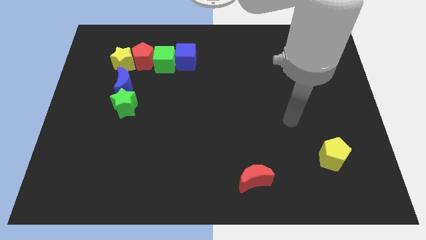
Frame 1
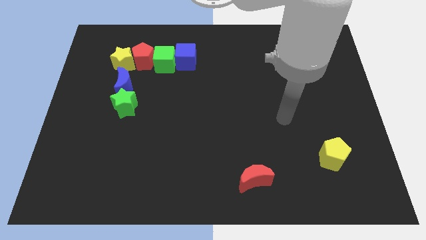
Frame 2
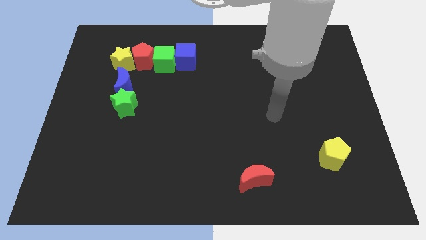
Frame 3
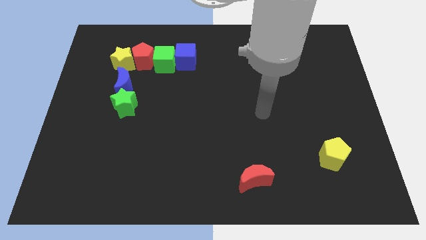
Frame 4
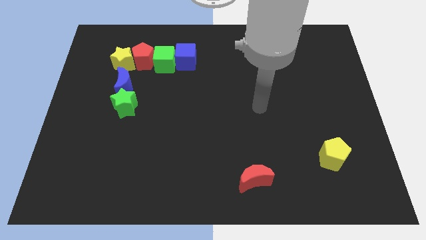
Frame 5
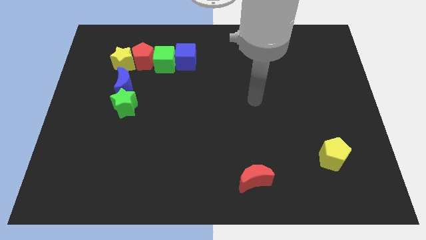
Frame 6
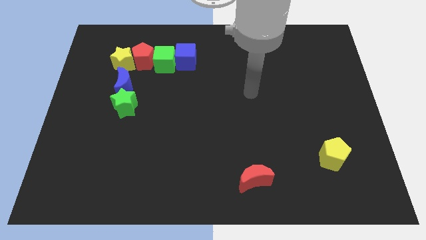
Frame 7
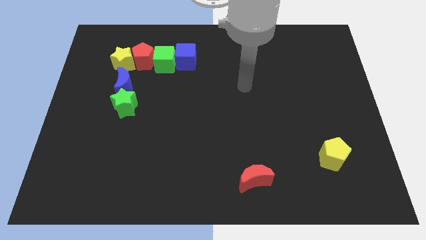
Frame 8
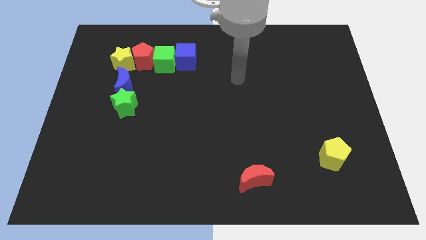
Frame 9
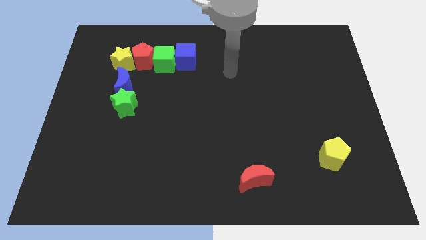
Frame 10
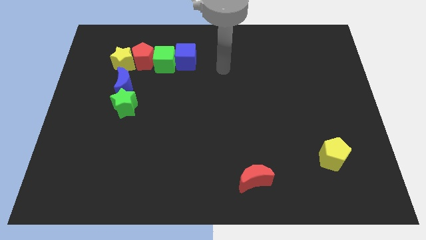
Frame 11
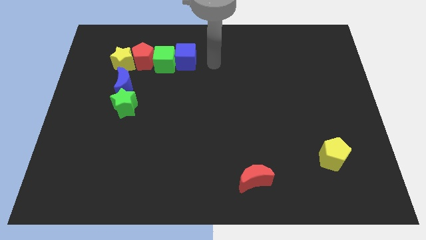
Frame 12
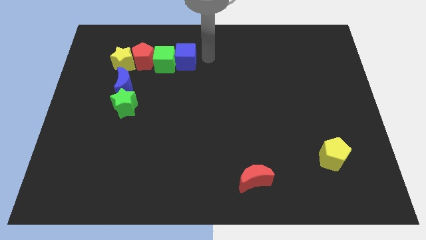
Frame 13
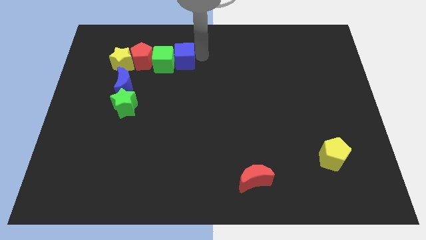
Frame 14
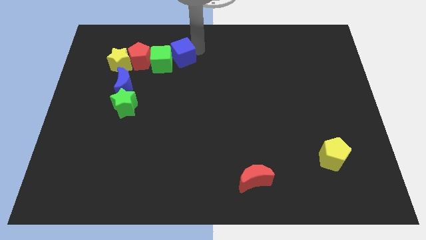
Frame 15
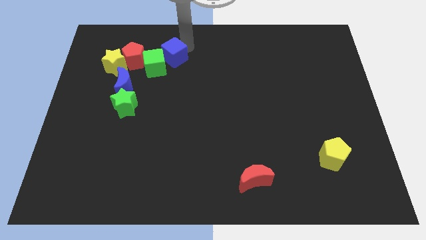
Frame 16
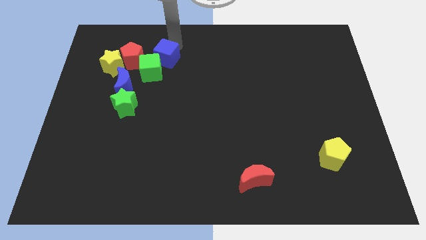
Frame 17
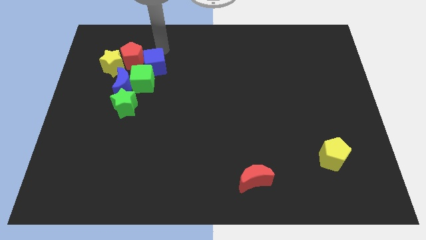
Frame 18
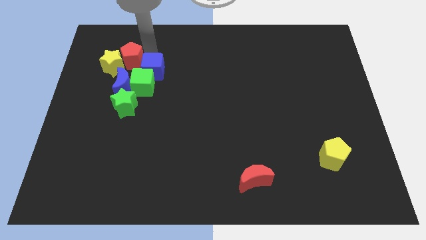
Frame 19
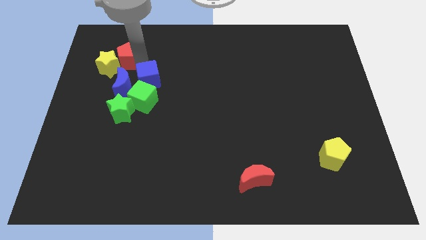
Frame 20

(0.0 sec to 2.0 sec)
separate the green cube from the red pentagon and blue cube

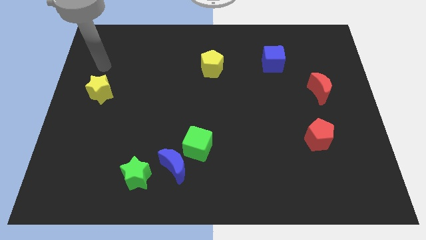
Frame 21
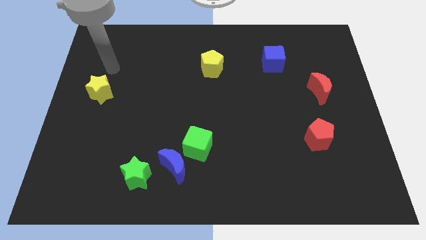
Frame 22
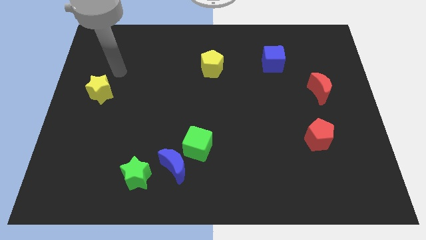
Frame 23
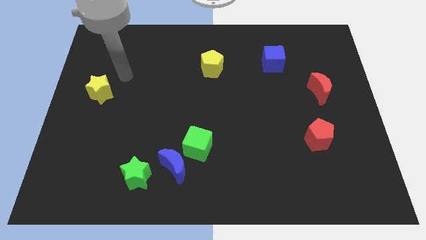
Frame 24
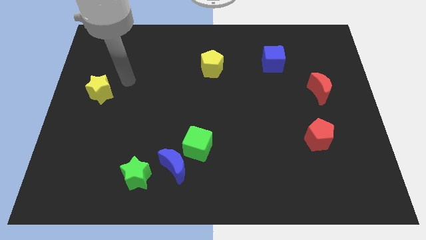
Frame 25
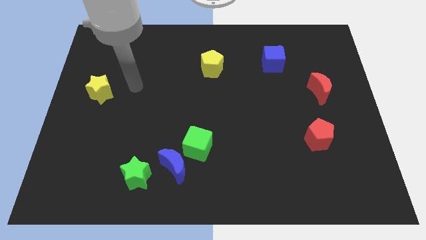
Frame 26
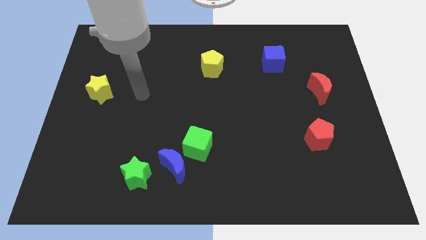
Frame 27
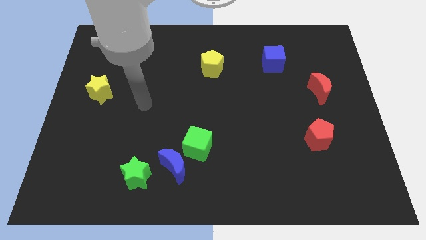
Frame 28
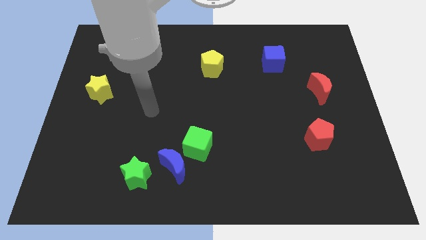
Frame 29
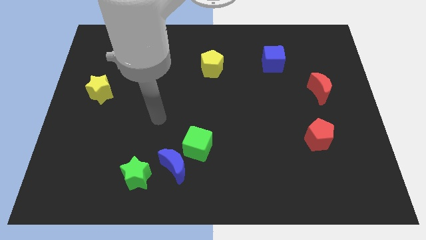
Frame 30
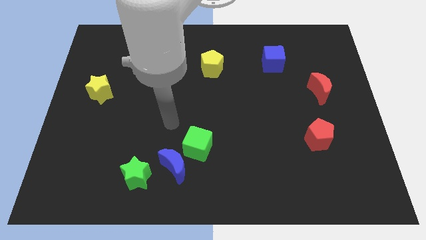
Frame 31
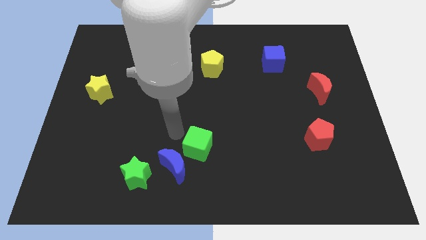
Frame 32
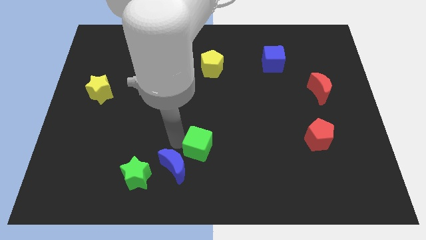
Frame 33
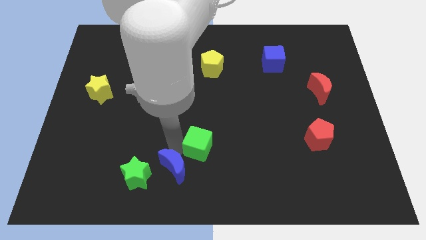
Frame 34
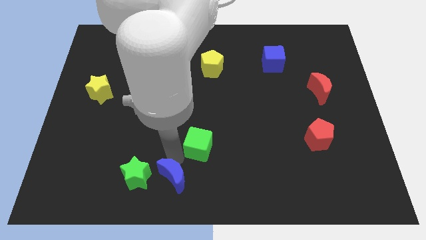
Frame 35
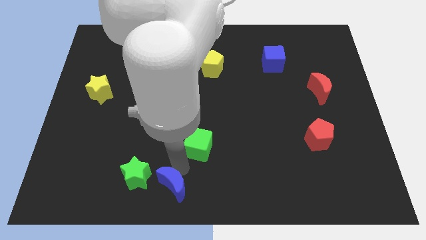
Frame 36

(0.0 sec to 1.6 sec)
move the green cube away from the blue moon

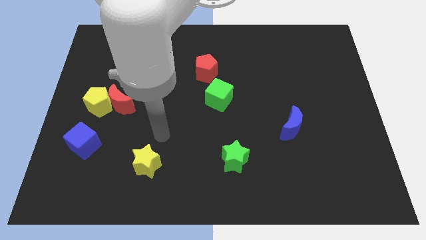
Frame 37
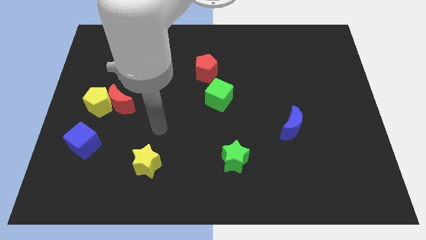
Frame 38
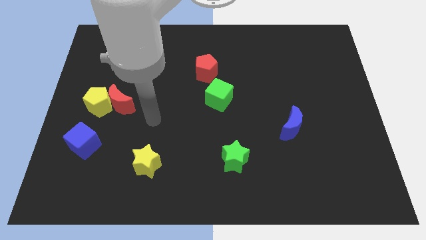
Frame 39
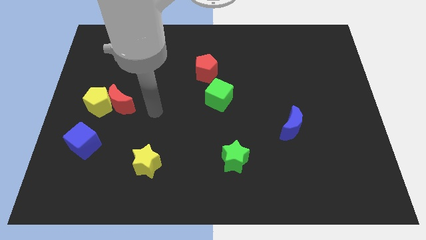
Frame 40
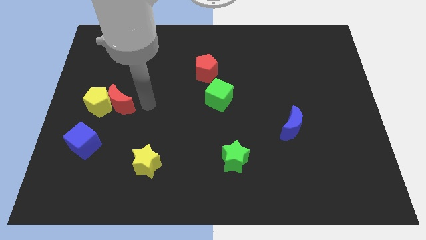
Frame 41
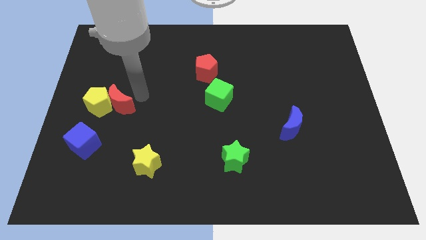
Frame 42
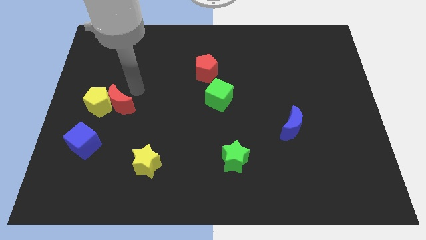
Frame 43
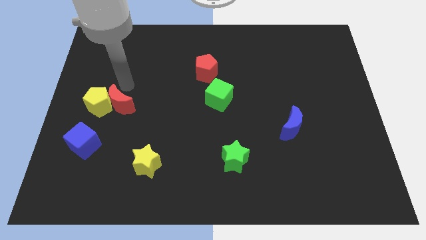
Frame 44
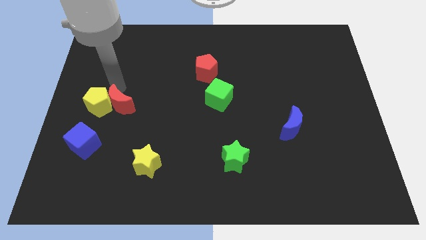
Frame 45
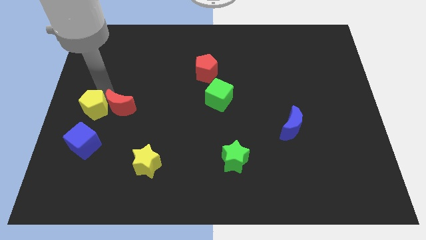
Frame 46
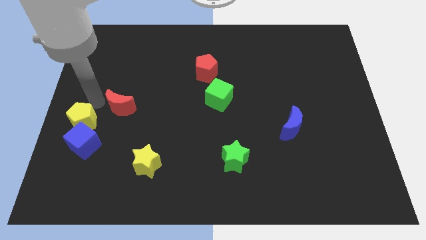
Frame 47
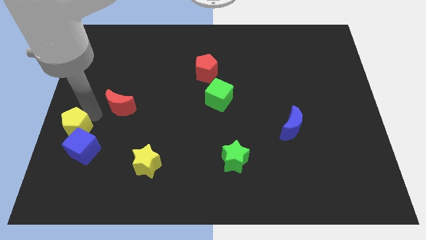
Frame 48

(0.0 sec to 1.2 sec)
pull the red moon apart from the yellow pentagon

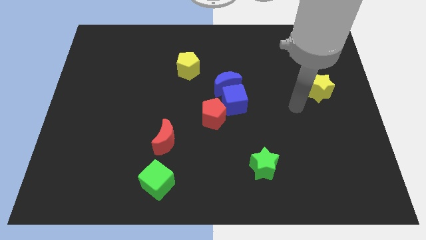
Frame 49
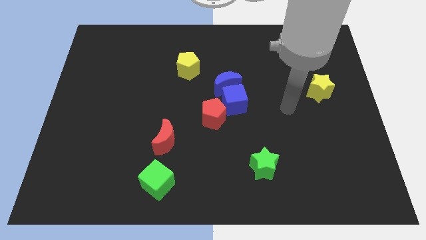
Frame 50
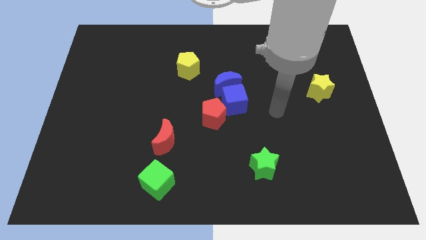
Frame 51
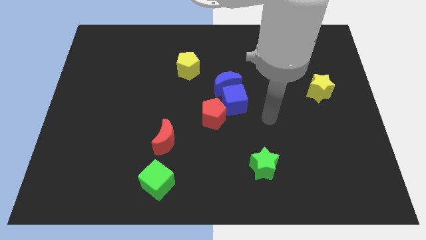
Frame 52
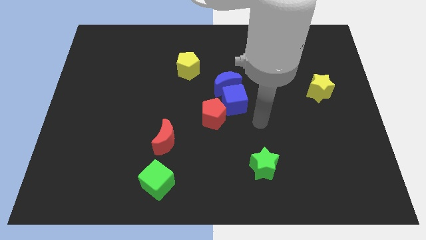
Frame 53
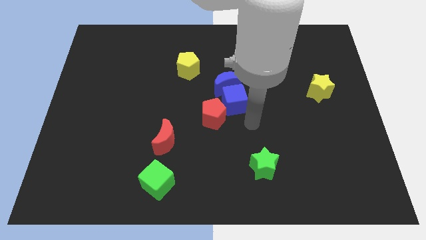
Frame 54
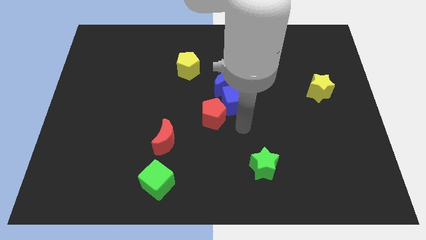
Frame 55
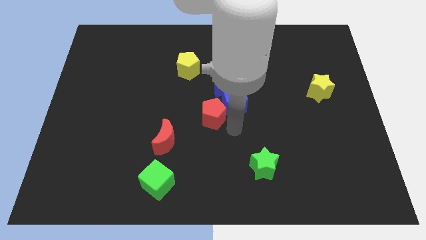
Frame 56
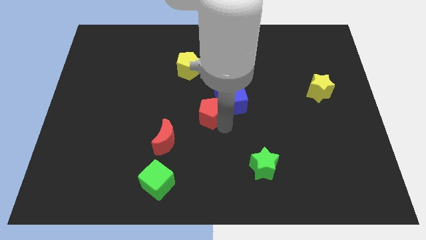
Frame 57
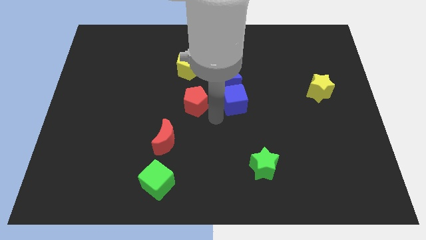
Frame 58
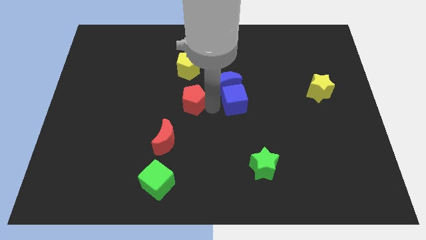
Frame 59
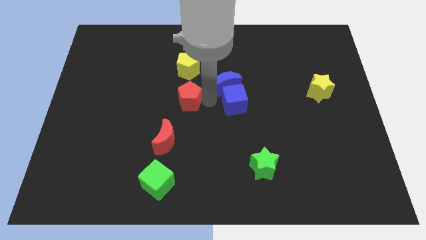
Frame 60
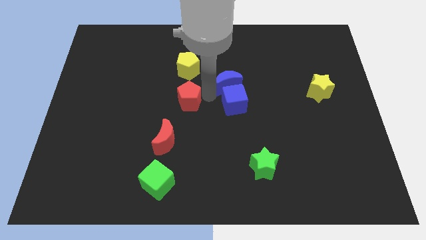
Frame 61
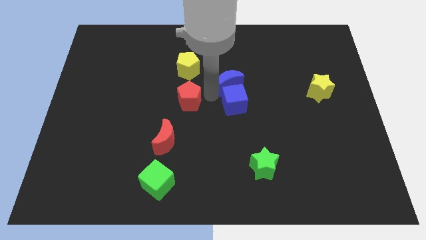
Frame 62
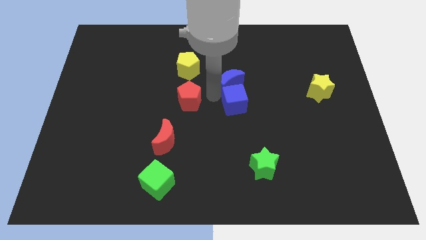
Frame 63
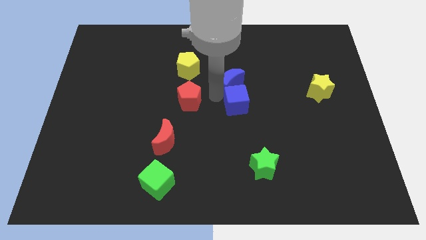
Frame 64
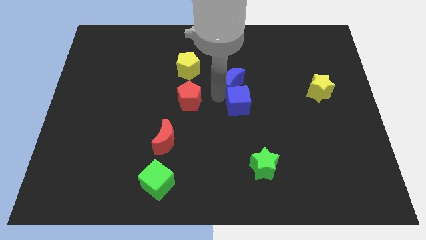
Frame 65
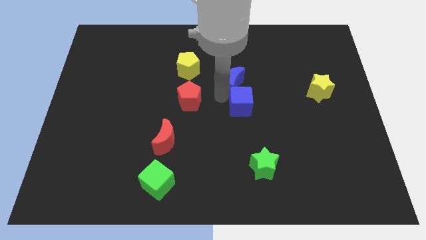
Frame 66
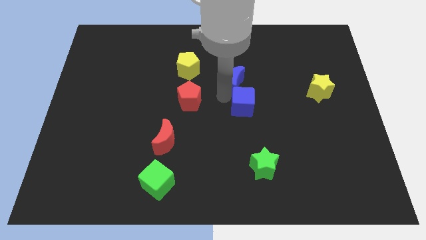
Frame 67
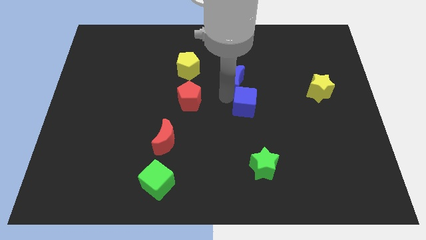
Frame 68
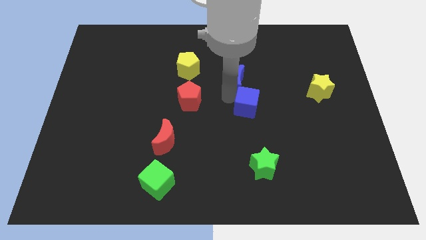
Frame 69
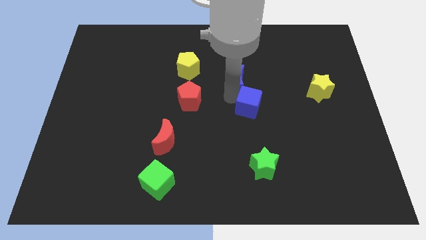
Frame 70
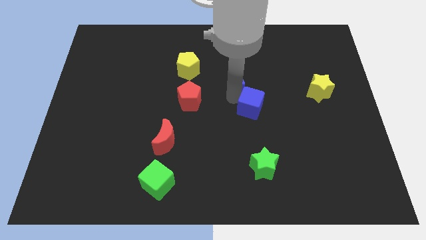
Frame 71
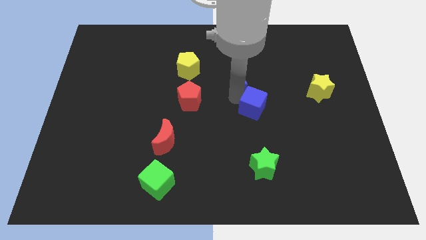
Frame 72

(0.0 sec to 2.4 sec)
pull the blue cube apart from the blue moon and red pentagon

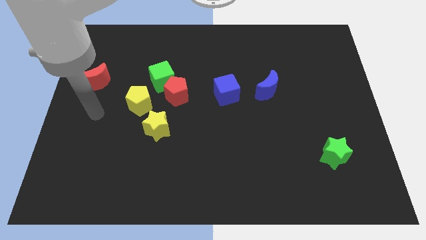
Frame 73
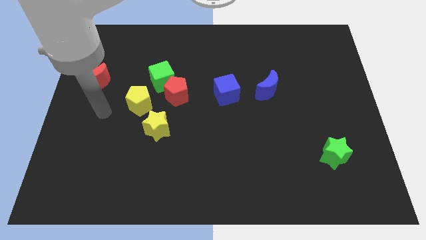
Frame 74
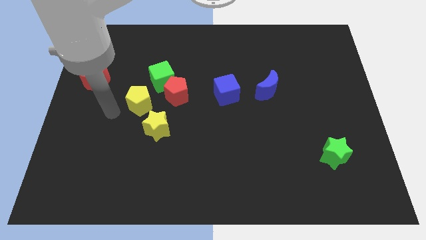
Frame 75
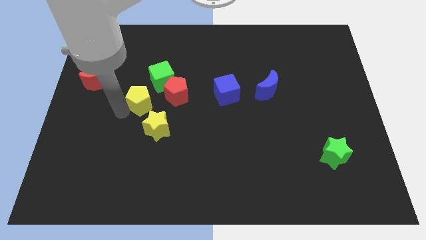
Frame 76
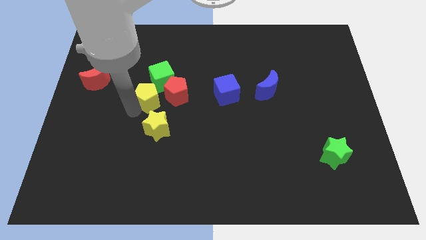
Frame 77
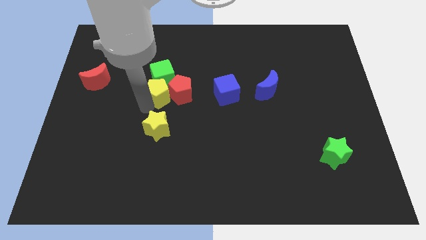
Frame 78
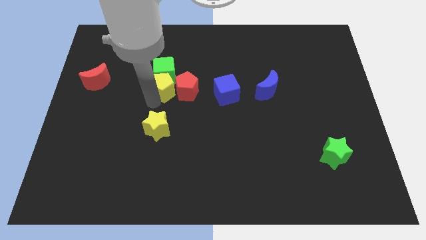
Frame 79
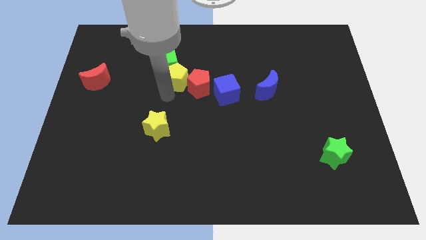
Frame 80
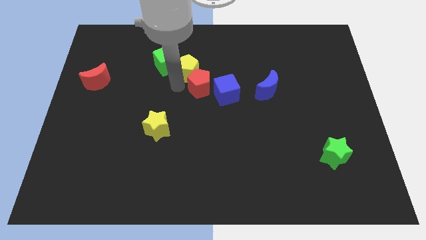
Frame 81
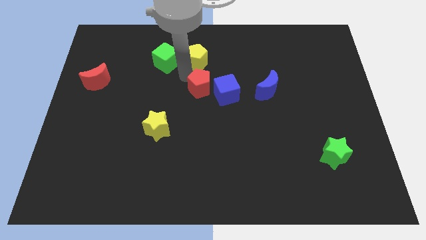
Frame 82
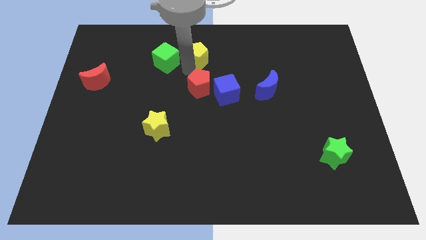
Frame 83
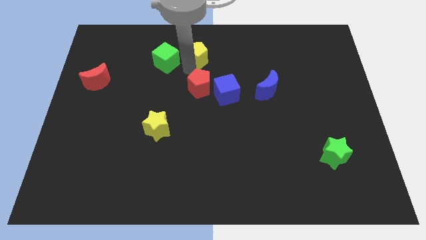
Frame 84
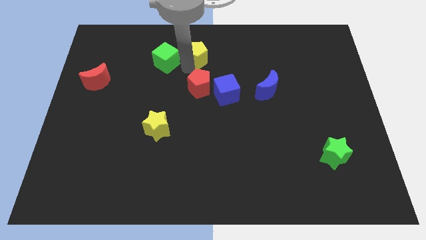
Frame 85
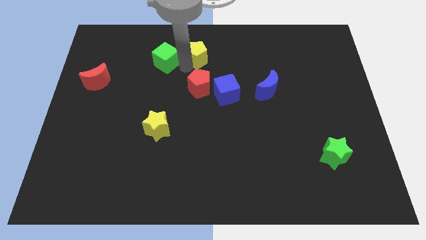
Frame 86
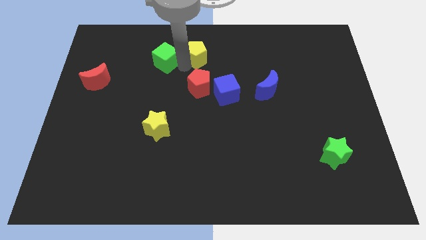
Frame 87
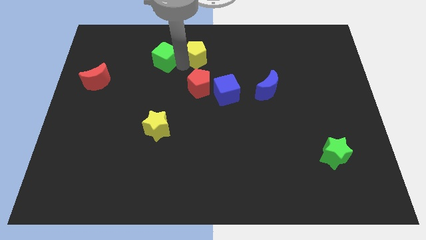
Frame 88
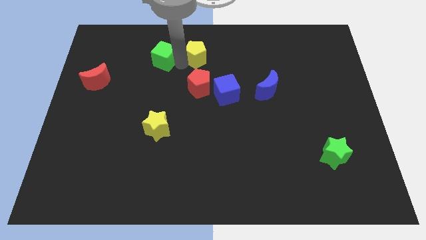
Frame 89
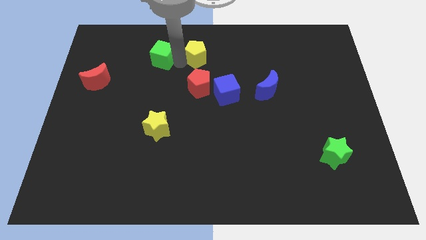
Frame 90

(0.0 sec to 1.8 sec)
pull the green cube apart from the red pentagon and yellow pentagon

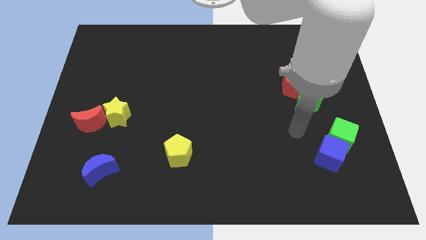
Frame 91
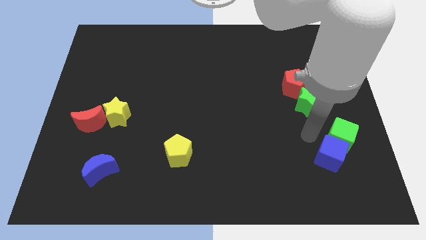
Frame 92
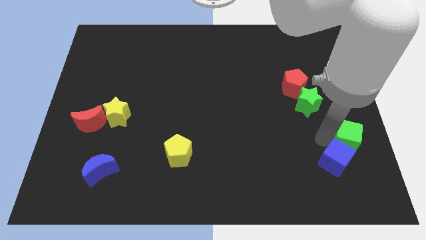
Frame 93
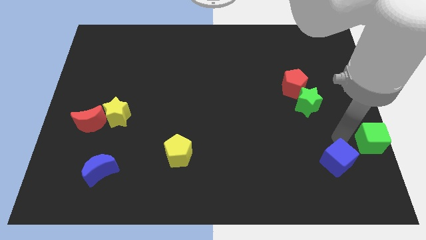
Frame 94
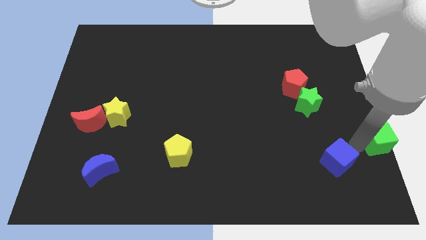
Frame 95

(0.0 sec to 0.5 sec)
move the blue cube away from the green cube

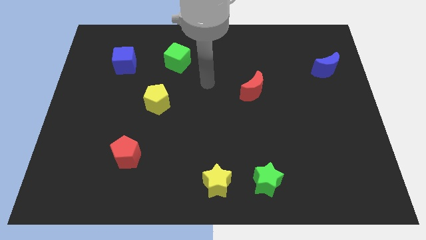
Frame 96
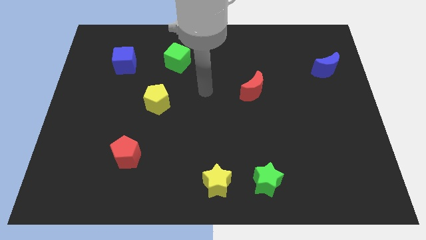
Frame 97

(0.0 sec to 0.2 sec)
pull the green star apart from the yellow star
